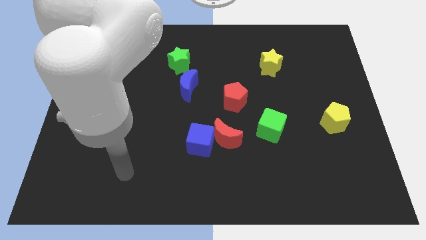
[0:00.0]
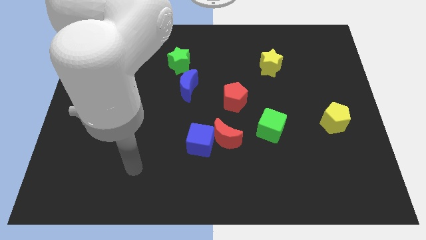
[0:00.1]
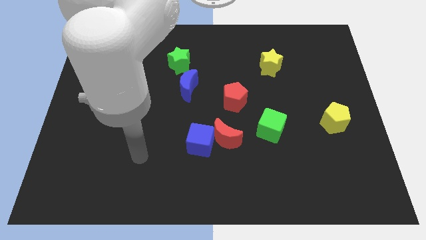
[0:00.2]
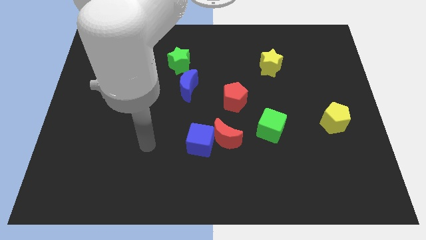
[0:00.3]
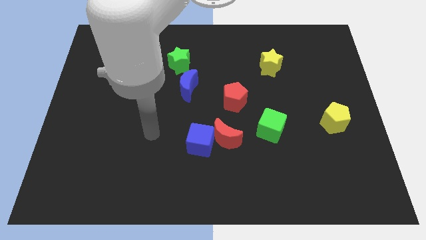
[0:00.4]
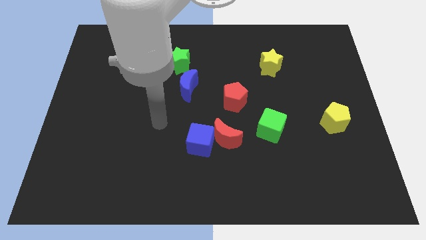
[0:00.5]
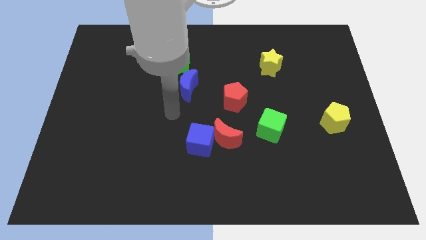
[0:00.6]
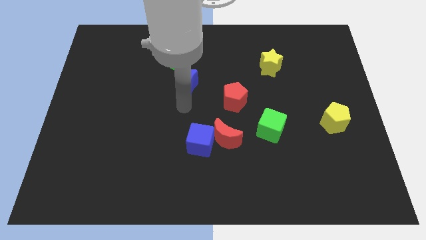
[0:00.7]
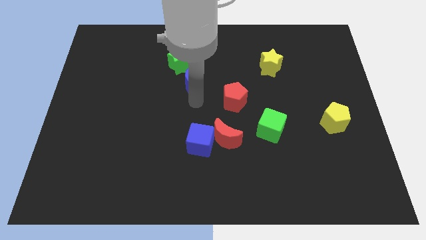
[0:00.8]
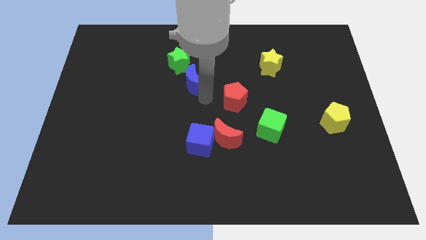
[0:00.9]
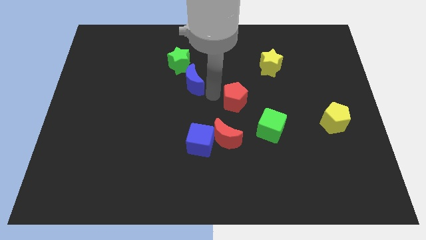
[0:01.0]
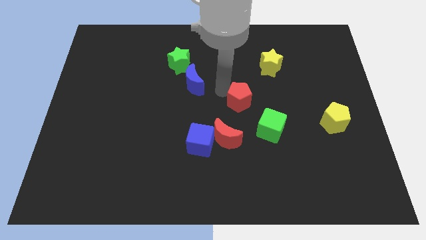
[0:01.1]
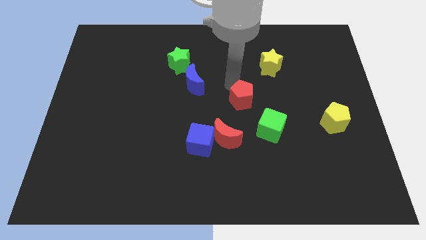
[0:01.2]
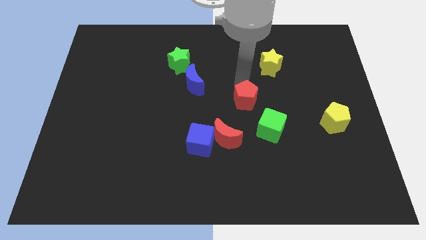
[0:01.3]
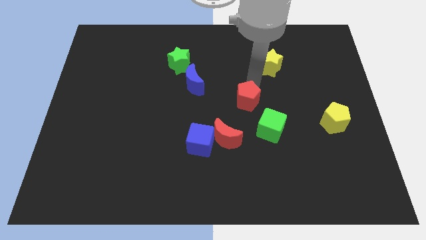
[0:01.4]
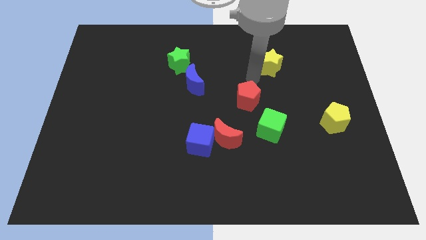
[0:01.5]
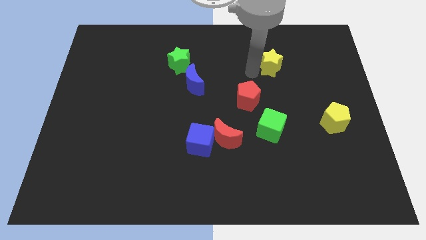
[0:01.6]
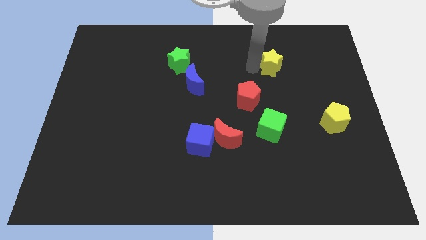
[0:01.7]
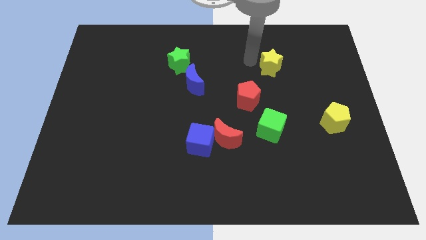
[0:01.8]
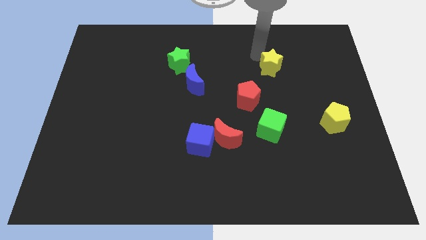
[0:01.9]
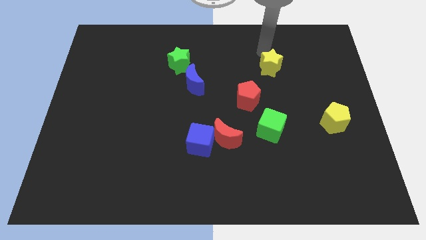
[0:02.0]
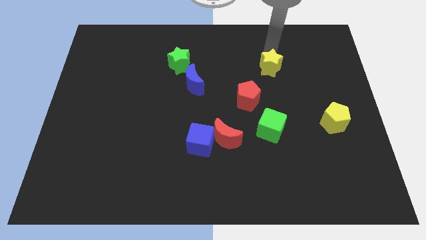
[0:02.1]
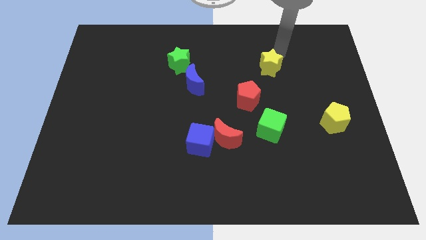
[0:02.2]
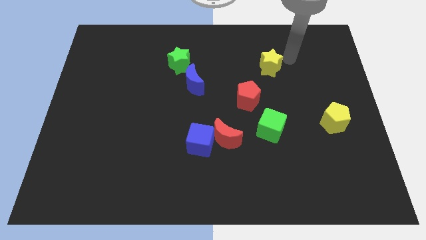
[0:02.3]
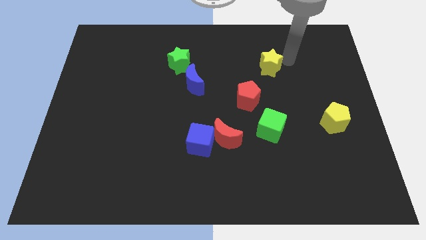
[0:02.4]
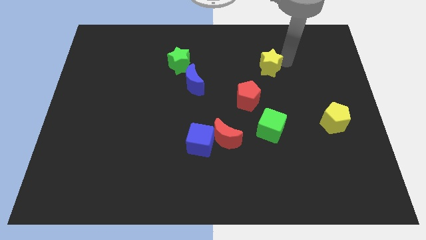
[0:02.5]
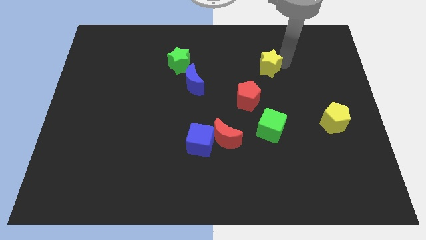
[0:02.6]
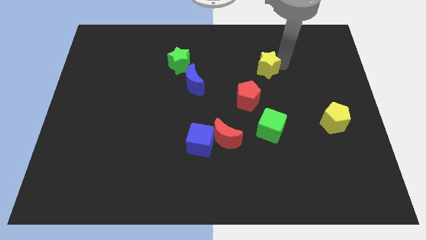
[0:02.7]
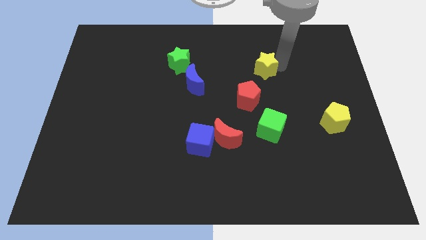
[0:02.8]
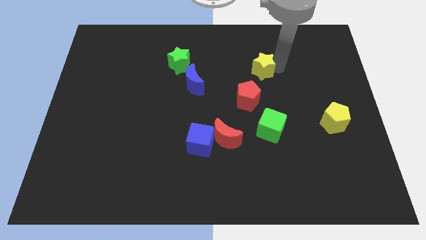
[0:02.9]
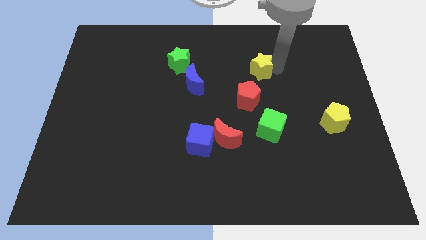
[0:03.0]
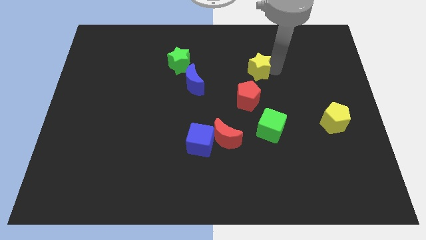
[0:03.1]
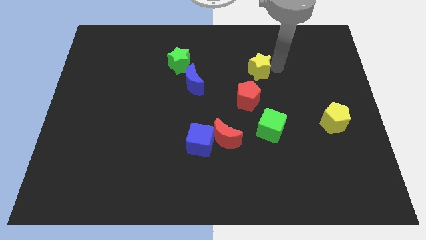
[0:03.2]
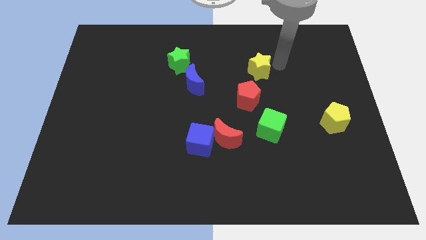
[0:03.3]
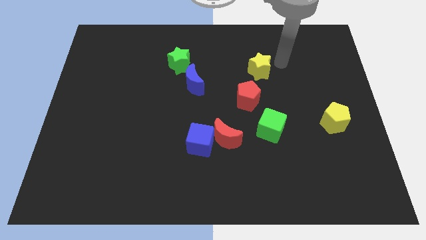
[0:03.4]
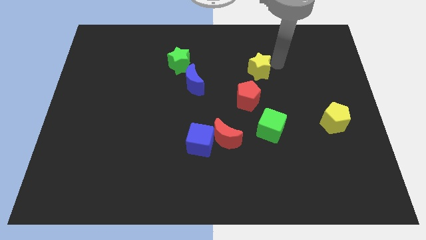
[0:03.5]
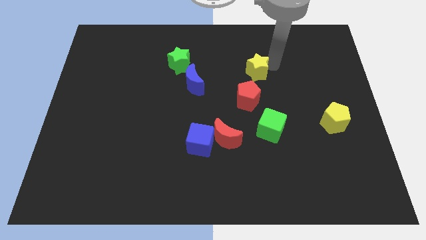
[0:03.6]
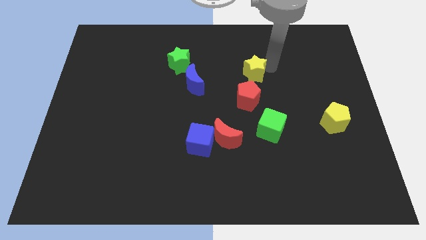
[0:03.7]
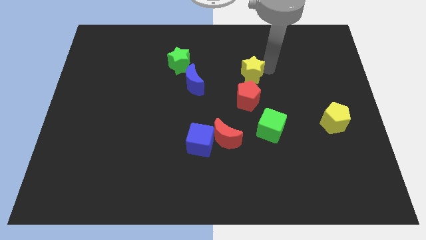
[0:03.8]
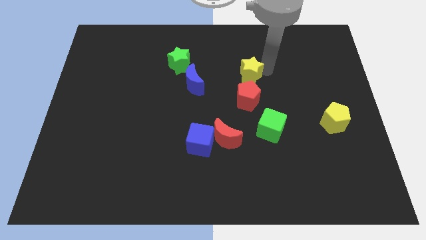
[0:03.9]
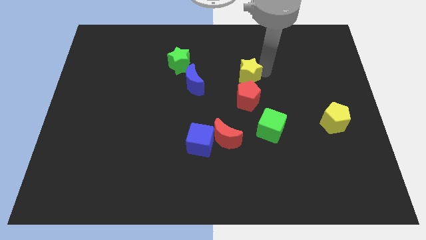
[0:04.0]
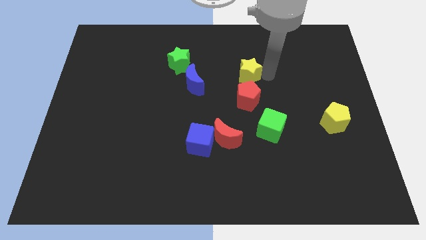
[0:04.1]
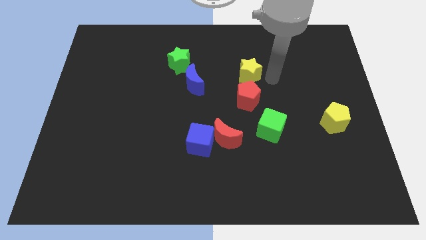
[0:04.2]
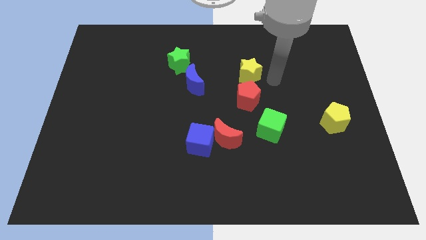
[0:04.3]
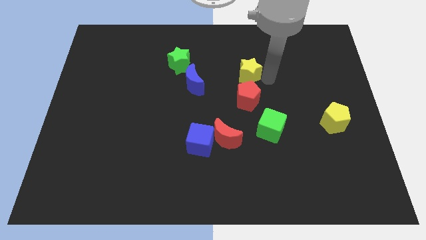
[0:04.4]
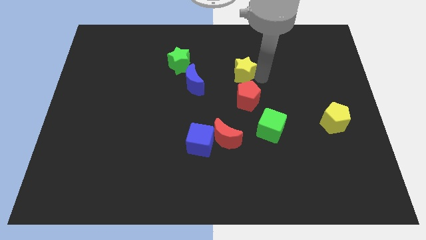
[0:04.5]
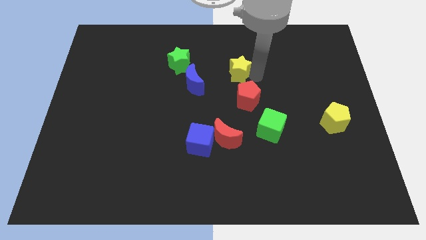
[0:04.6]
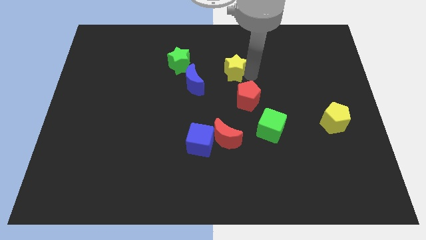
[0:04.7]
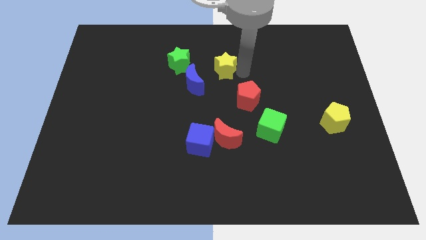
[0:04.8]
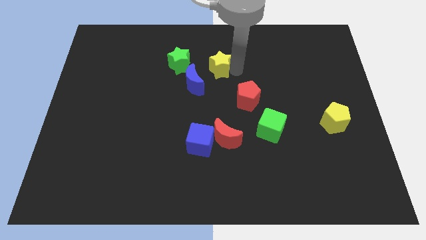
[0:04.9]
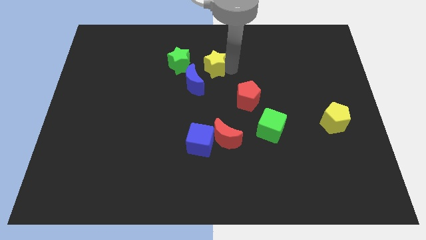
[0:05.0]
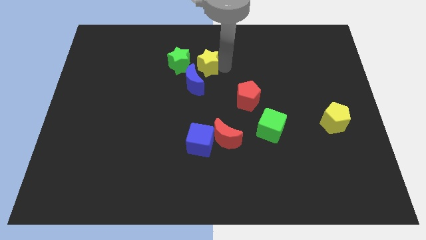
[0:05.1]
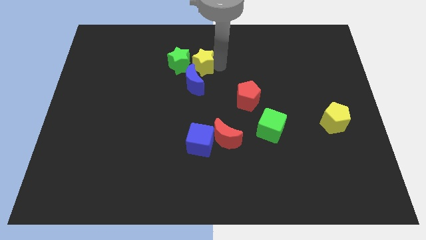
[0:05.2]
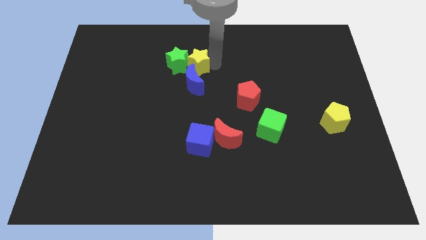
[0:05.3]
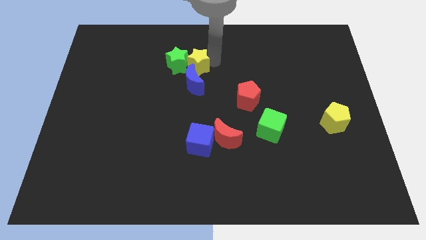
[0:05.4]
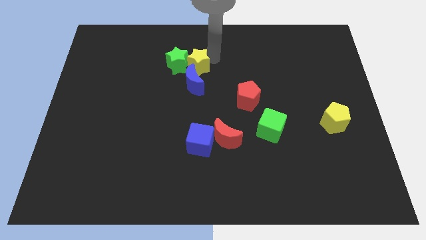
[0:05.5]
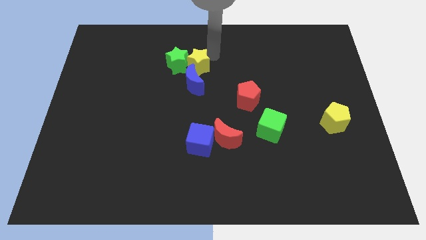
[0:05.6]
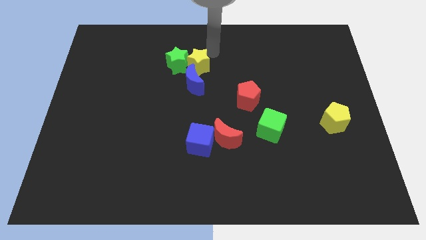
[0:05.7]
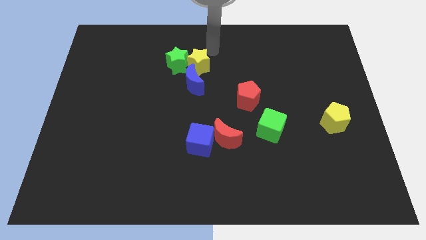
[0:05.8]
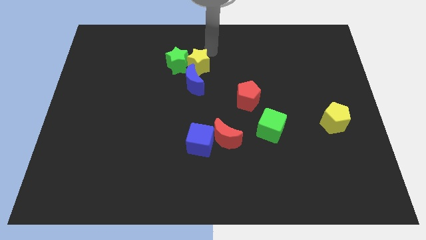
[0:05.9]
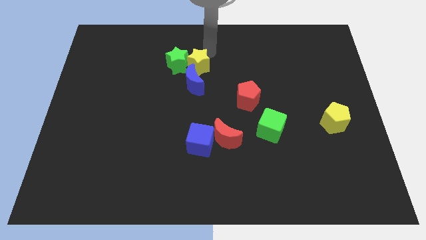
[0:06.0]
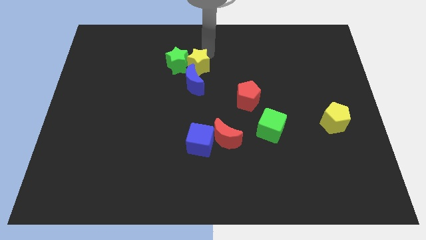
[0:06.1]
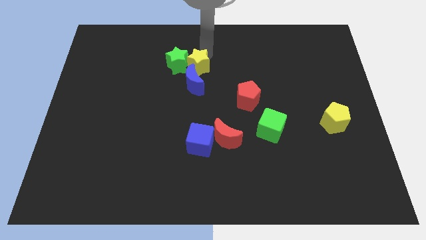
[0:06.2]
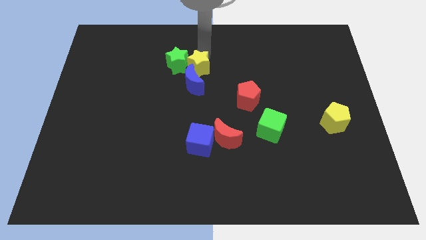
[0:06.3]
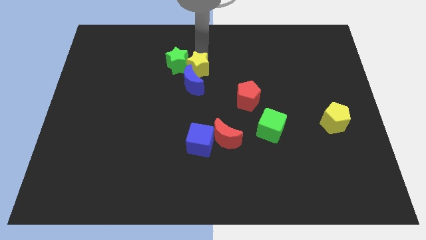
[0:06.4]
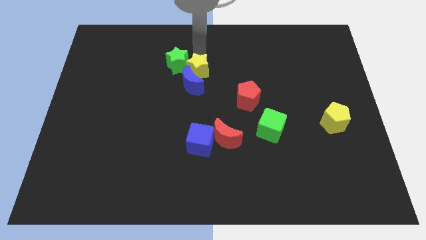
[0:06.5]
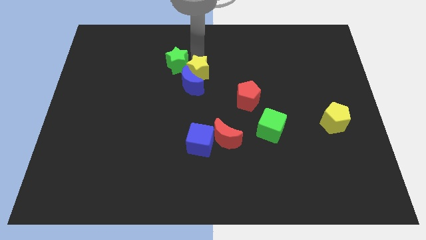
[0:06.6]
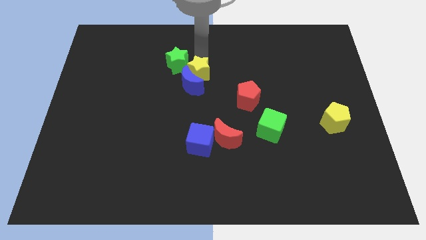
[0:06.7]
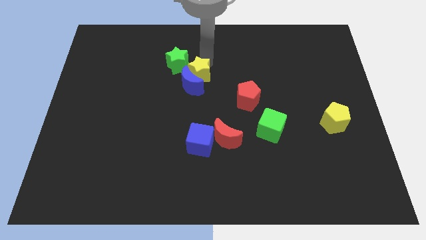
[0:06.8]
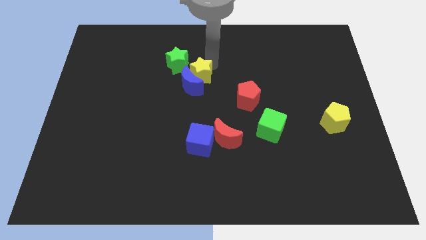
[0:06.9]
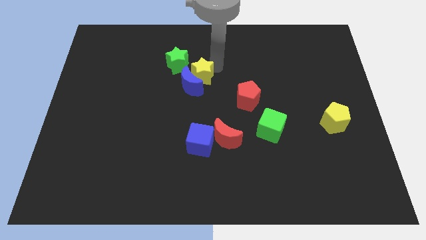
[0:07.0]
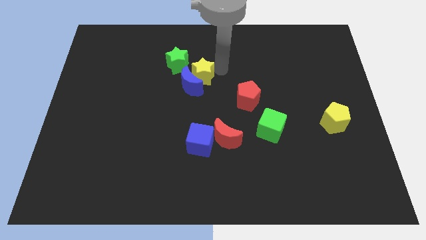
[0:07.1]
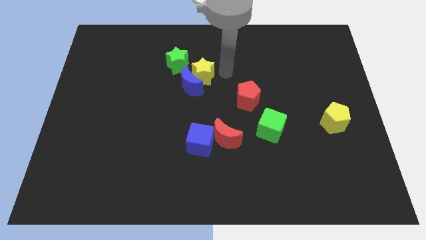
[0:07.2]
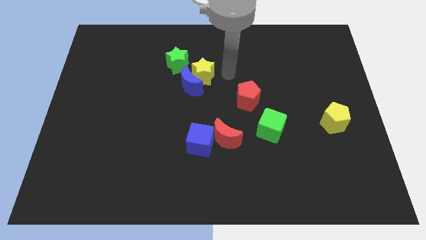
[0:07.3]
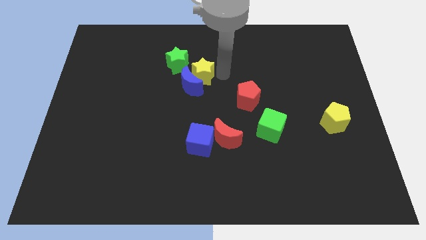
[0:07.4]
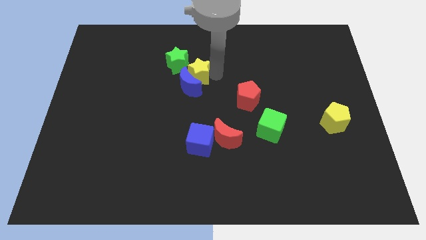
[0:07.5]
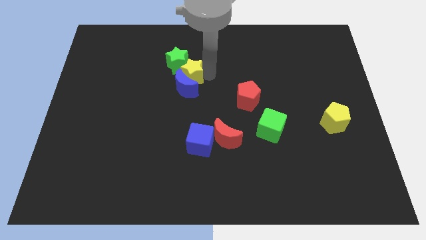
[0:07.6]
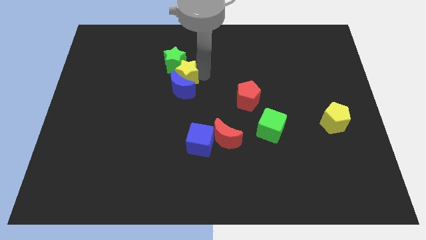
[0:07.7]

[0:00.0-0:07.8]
push the yellow star left

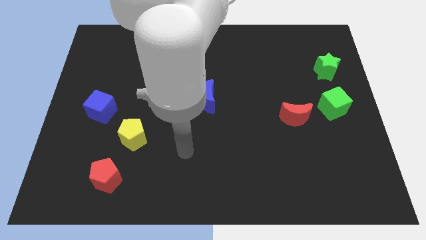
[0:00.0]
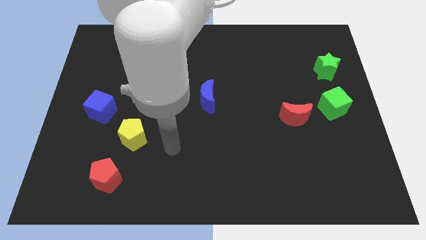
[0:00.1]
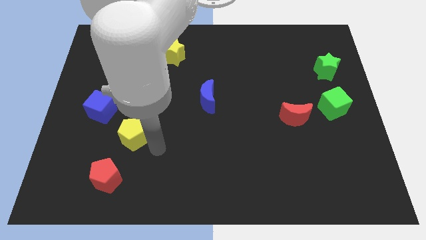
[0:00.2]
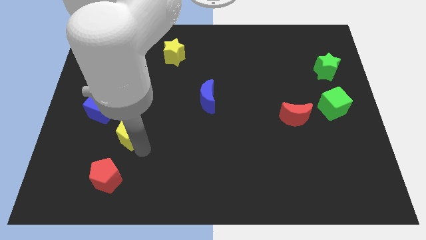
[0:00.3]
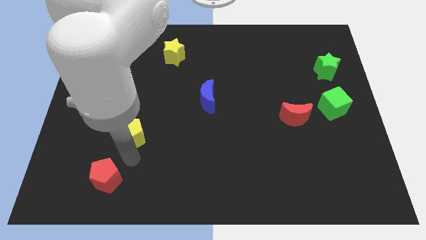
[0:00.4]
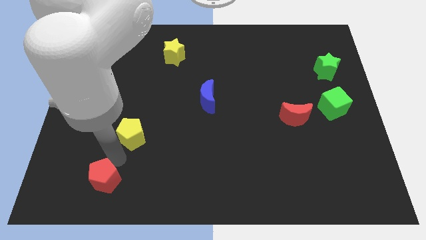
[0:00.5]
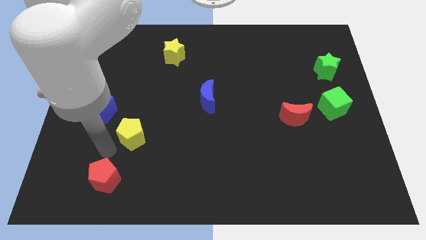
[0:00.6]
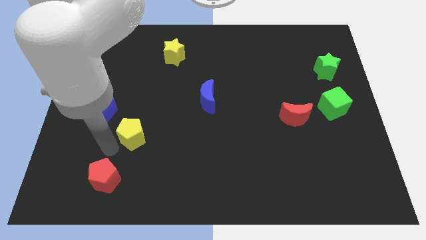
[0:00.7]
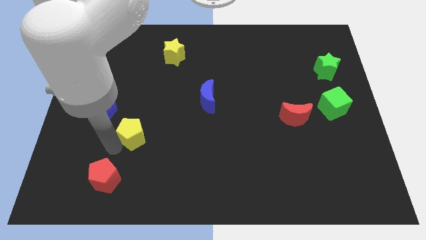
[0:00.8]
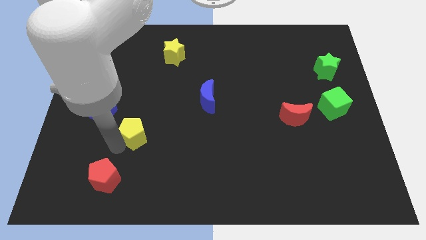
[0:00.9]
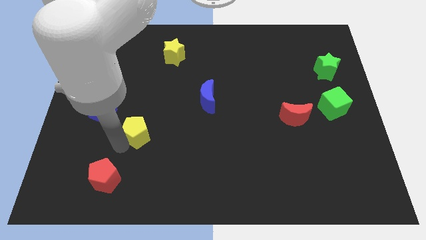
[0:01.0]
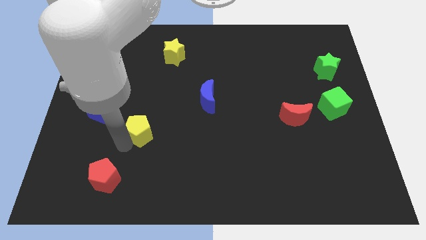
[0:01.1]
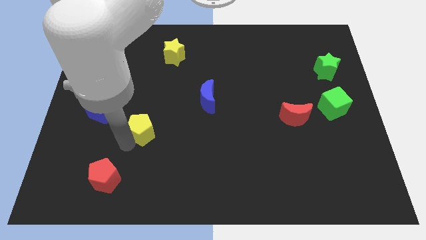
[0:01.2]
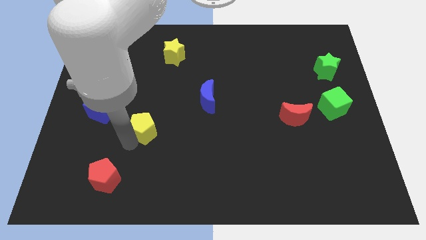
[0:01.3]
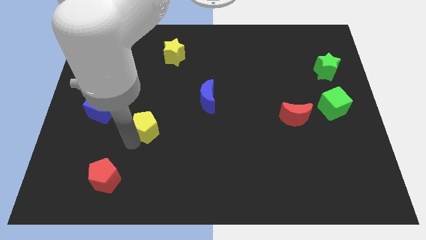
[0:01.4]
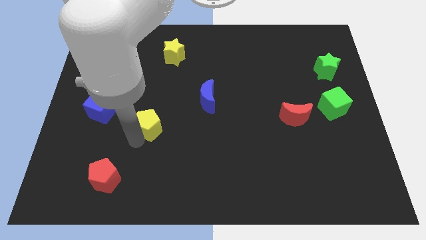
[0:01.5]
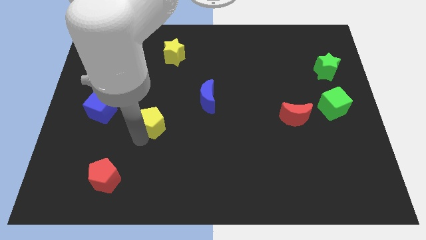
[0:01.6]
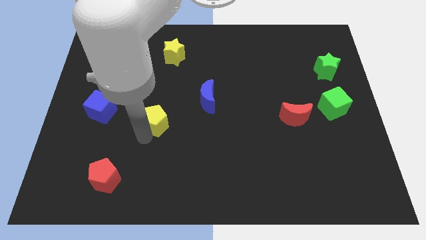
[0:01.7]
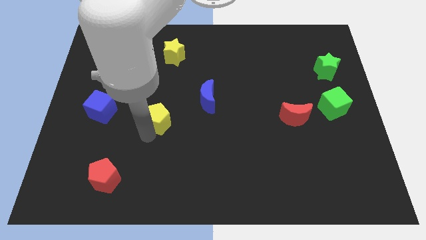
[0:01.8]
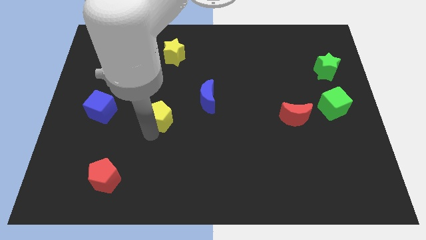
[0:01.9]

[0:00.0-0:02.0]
slide the yellow pentagon a little bit diagonally upwards and right
